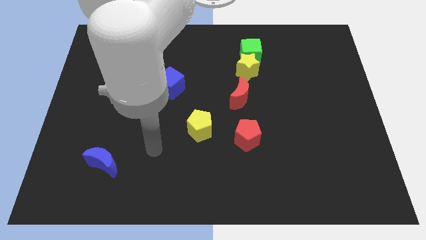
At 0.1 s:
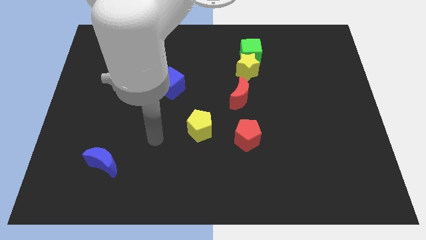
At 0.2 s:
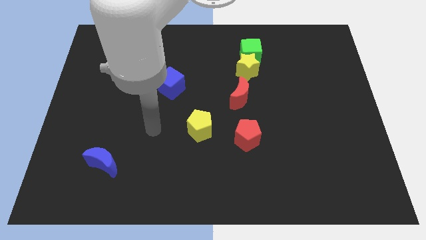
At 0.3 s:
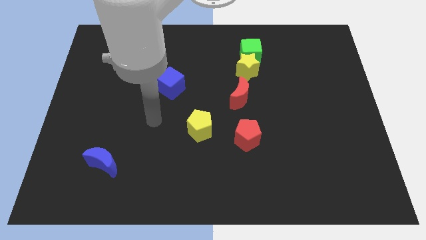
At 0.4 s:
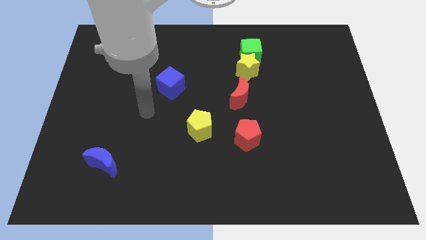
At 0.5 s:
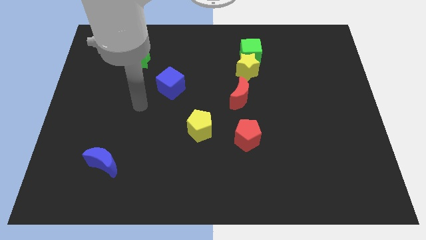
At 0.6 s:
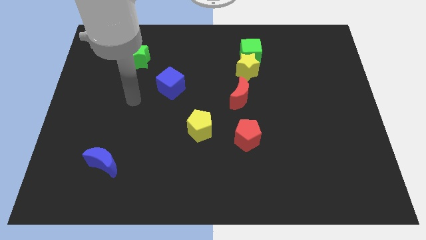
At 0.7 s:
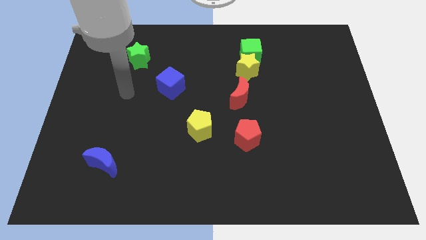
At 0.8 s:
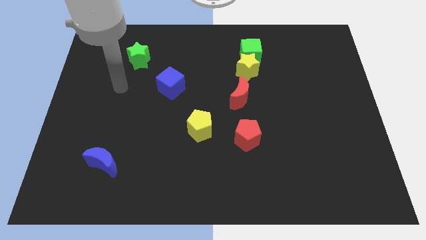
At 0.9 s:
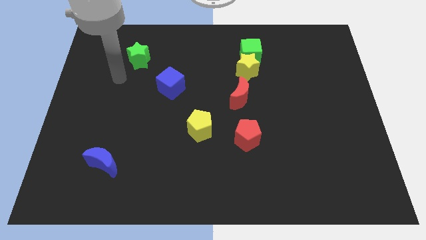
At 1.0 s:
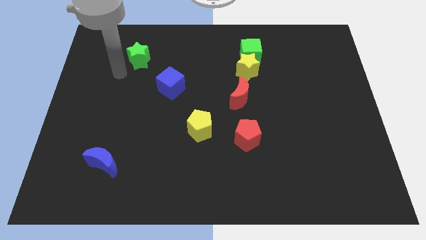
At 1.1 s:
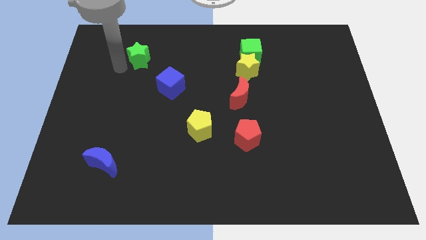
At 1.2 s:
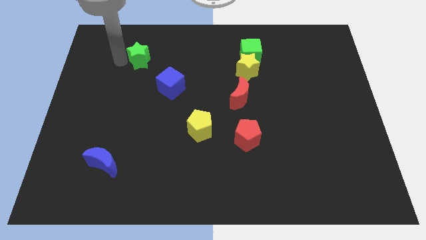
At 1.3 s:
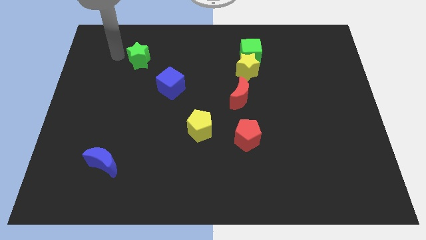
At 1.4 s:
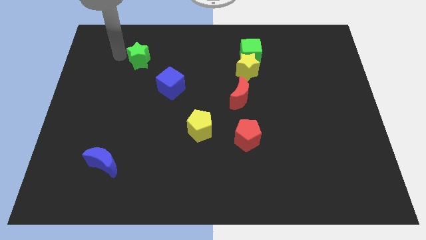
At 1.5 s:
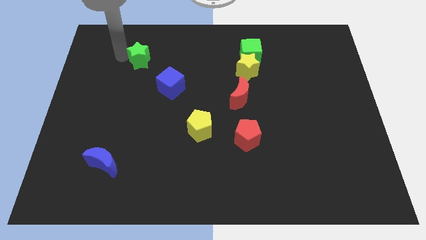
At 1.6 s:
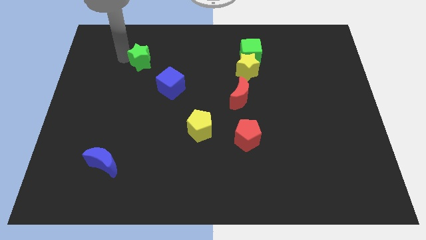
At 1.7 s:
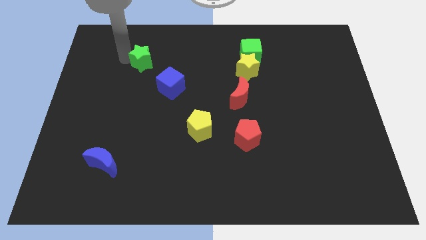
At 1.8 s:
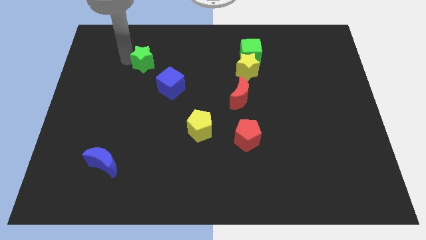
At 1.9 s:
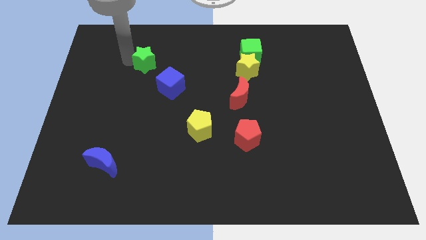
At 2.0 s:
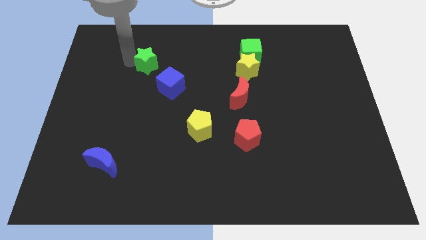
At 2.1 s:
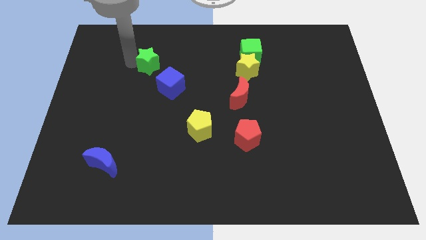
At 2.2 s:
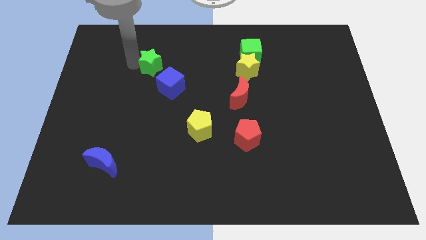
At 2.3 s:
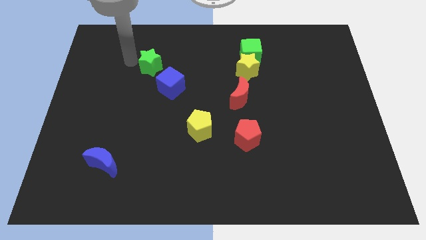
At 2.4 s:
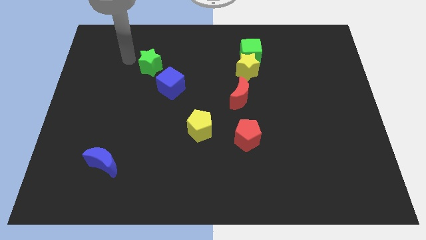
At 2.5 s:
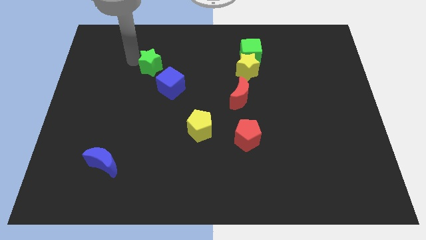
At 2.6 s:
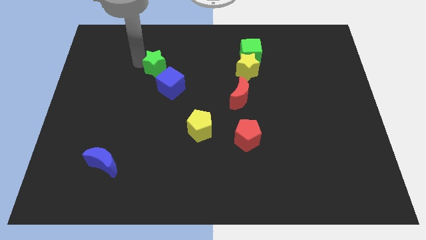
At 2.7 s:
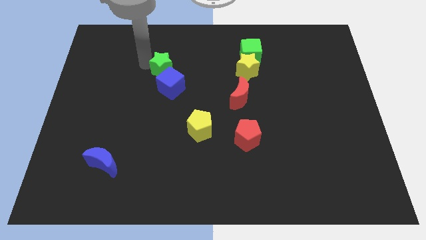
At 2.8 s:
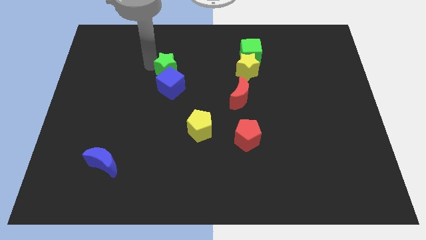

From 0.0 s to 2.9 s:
push the green star a bit down and right diagonally

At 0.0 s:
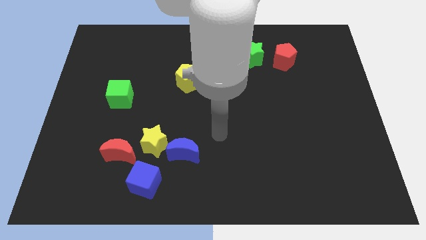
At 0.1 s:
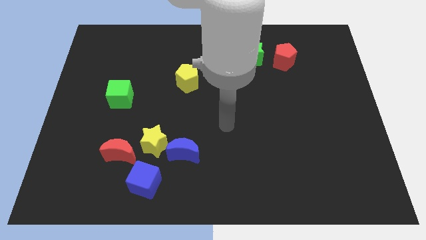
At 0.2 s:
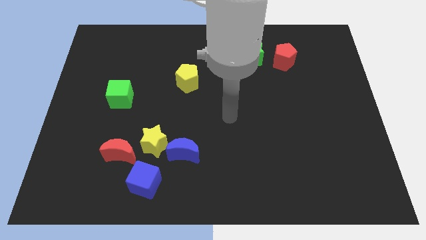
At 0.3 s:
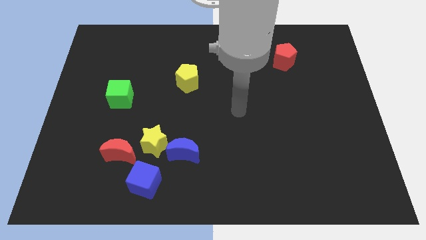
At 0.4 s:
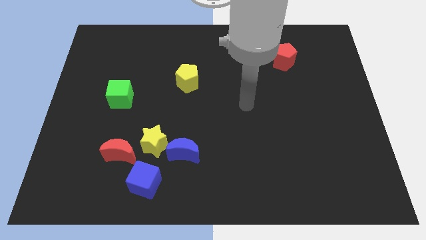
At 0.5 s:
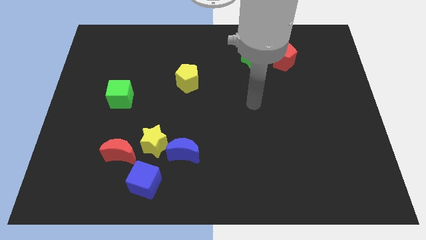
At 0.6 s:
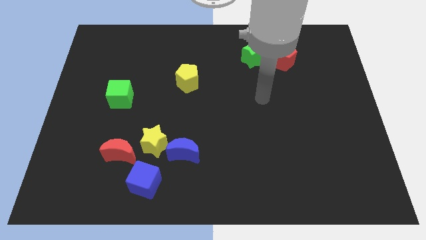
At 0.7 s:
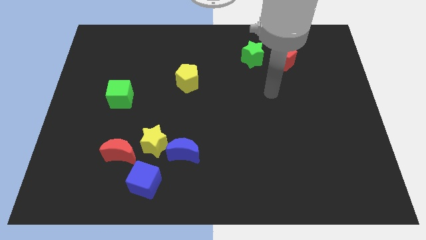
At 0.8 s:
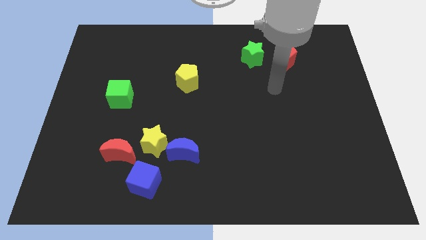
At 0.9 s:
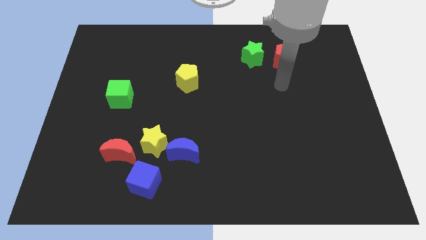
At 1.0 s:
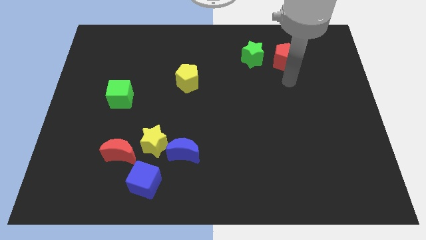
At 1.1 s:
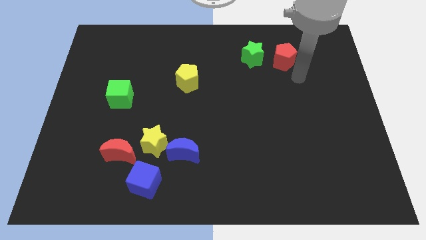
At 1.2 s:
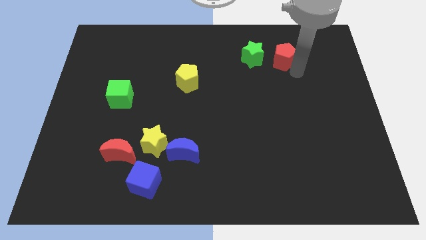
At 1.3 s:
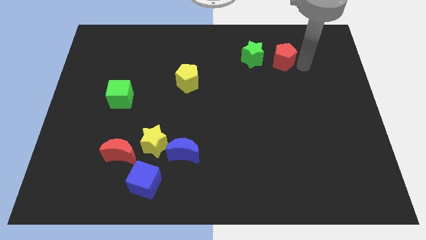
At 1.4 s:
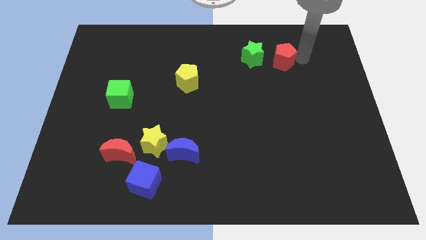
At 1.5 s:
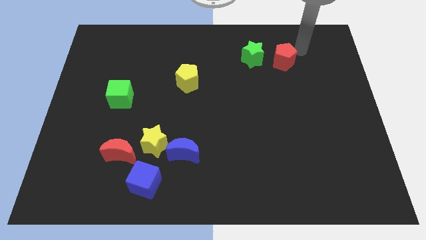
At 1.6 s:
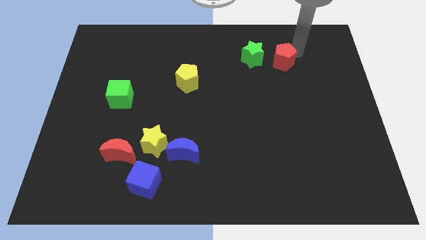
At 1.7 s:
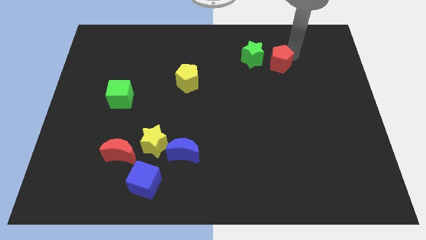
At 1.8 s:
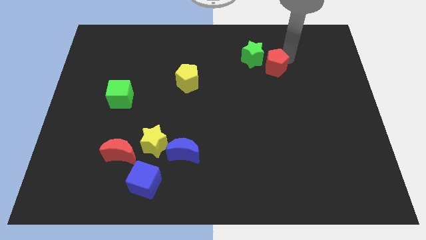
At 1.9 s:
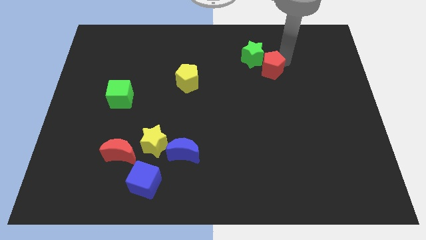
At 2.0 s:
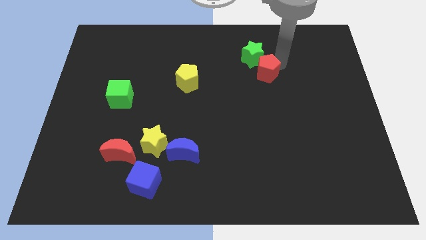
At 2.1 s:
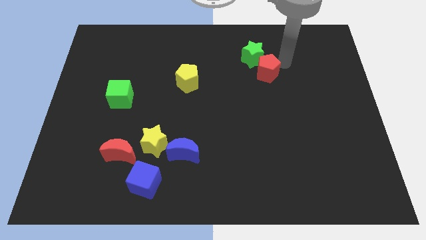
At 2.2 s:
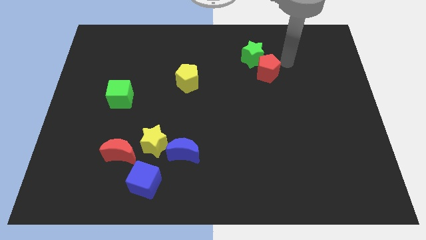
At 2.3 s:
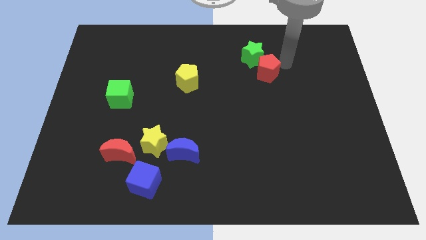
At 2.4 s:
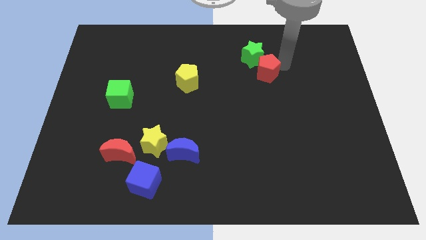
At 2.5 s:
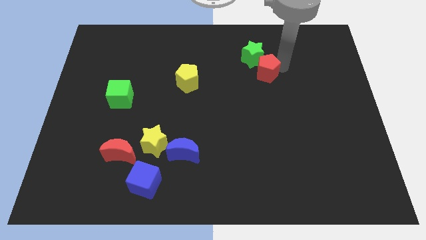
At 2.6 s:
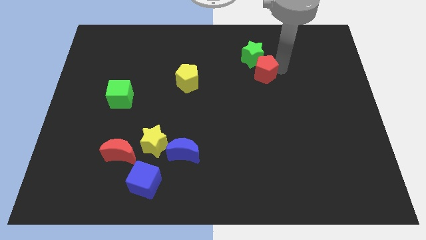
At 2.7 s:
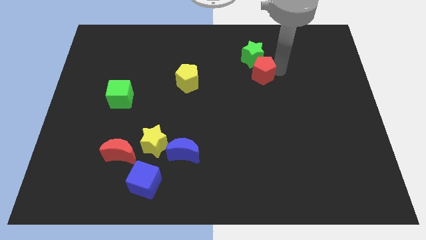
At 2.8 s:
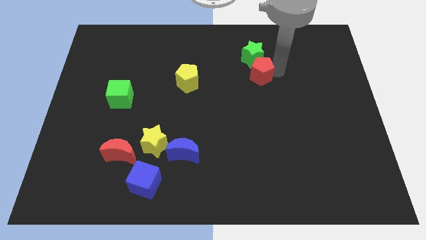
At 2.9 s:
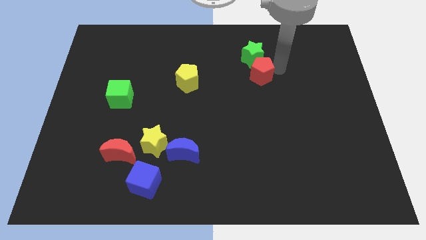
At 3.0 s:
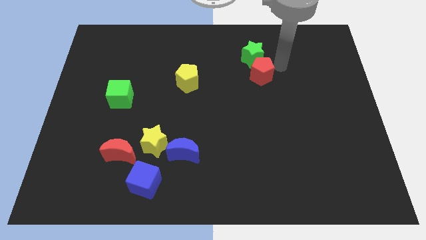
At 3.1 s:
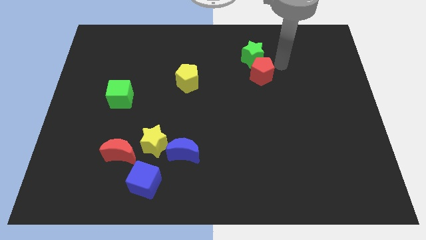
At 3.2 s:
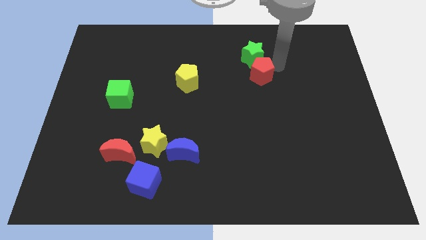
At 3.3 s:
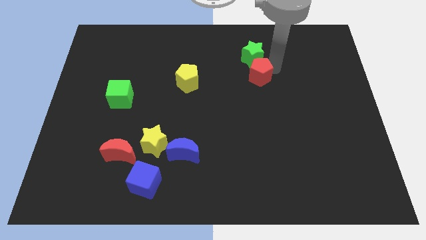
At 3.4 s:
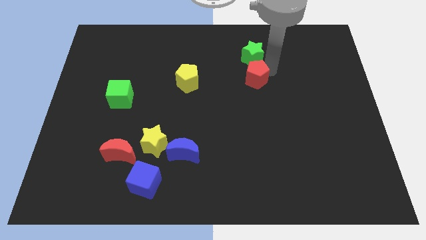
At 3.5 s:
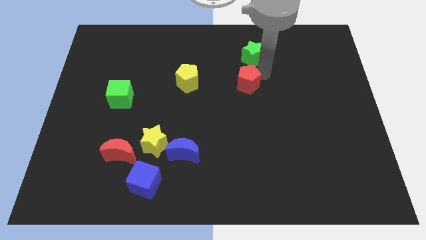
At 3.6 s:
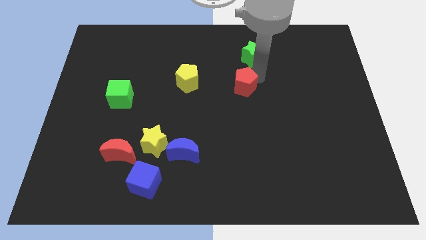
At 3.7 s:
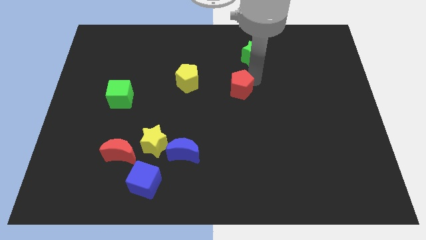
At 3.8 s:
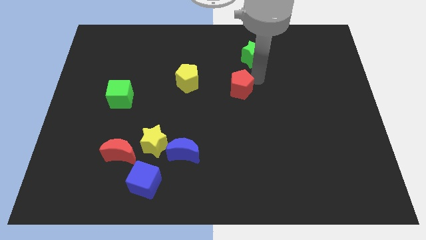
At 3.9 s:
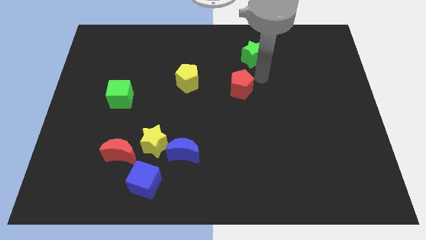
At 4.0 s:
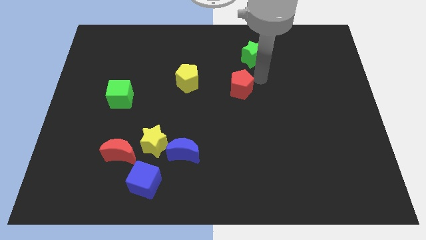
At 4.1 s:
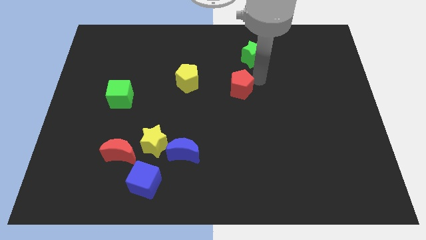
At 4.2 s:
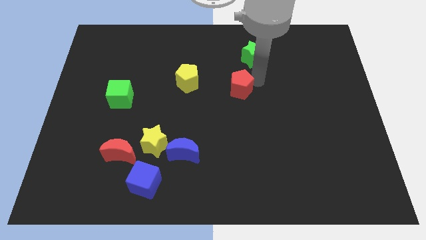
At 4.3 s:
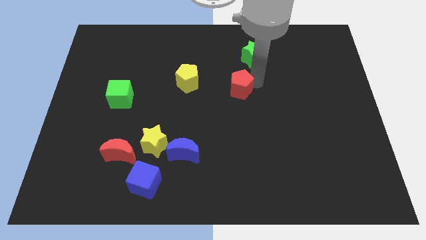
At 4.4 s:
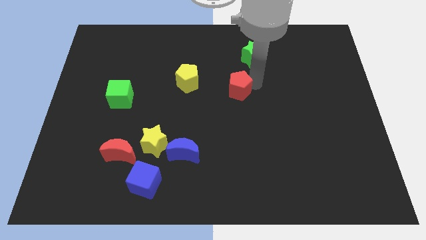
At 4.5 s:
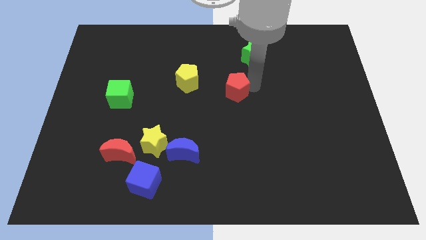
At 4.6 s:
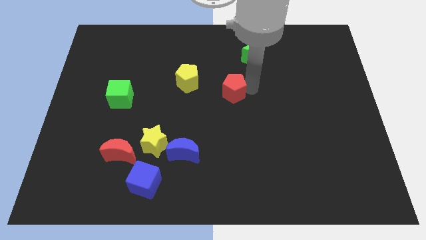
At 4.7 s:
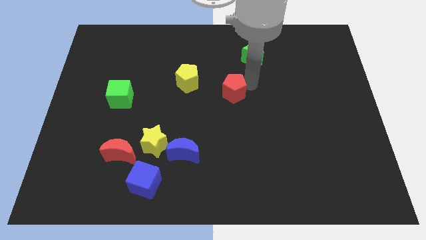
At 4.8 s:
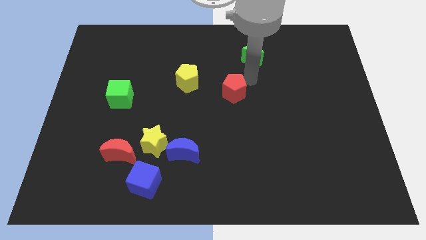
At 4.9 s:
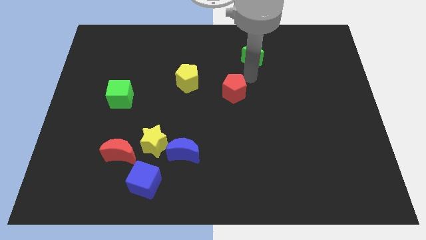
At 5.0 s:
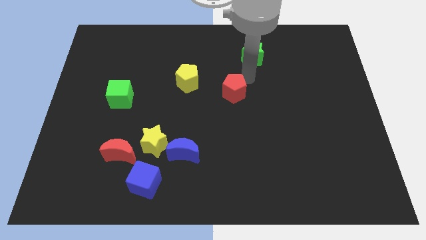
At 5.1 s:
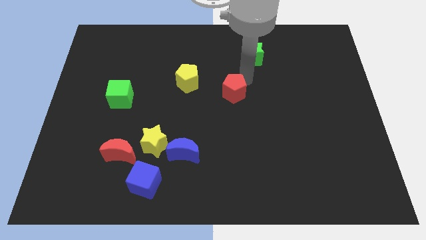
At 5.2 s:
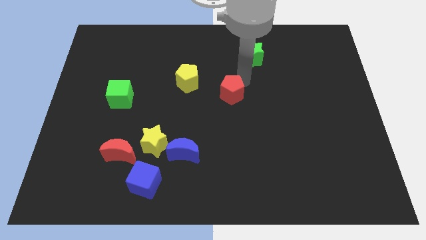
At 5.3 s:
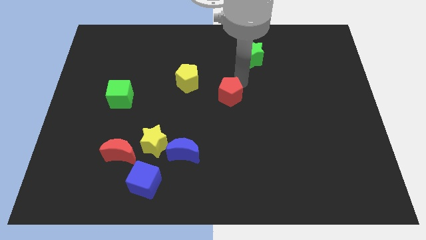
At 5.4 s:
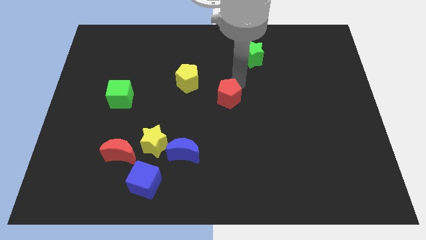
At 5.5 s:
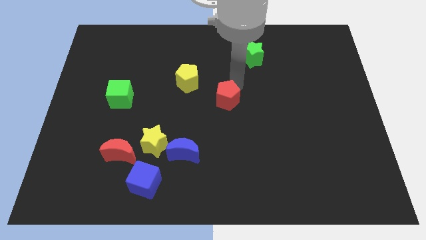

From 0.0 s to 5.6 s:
push the red pentagon downwards and to the left
